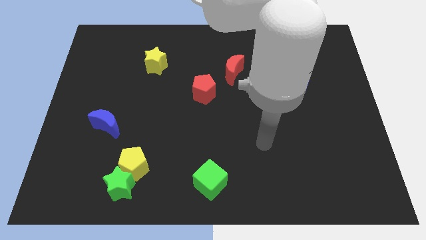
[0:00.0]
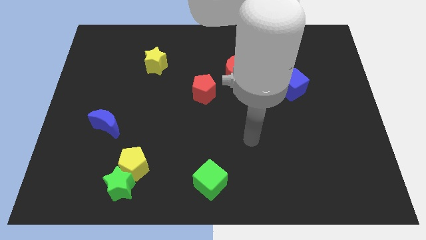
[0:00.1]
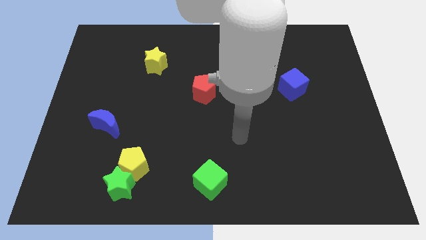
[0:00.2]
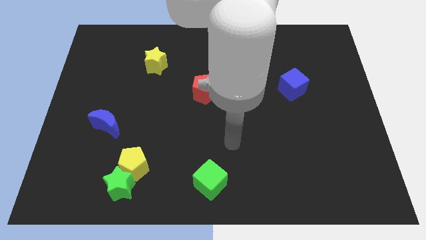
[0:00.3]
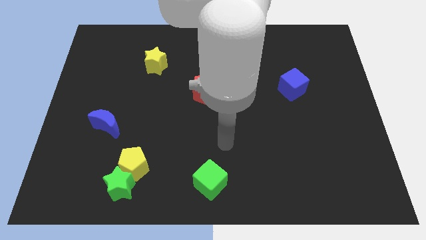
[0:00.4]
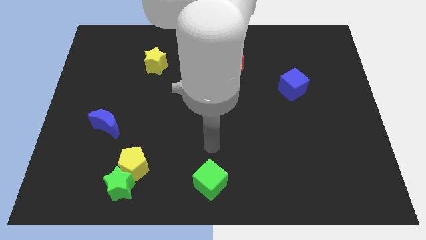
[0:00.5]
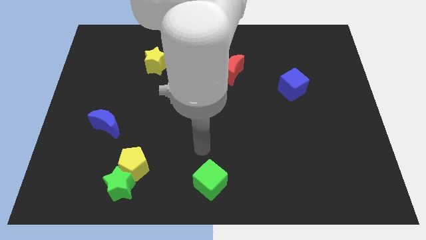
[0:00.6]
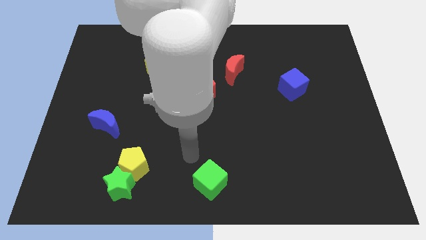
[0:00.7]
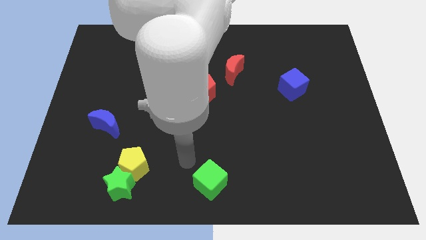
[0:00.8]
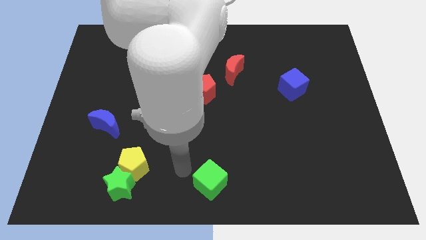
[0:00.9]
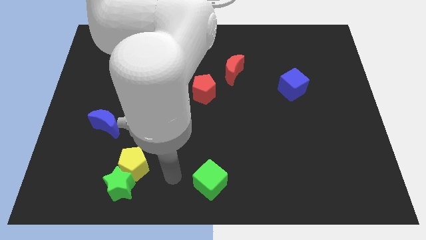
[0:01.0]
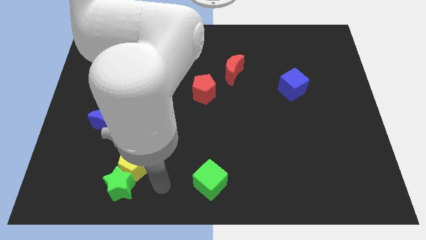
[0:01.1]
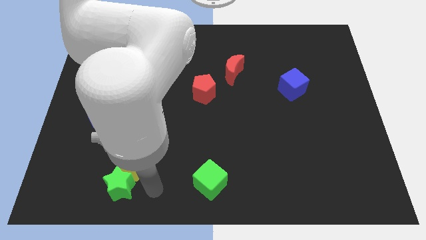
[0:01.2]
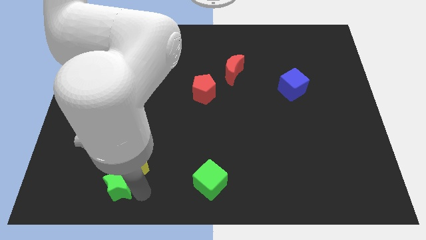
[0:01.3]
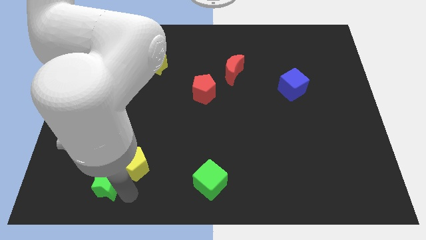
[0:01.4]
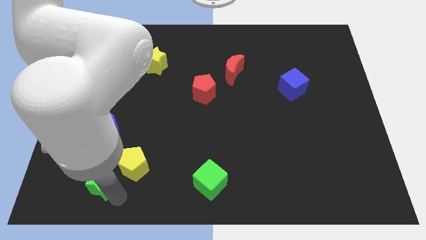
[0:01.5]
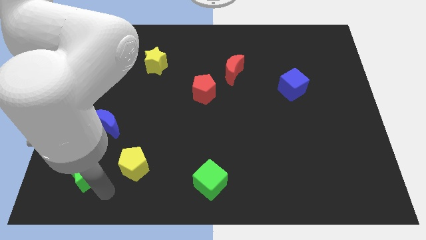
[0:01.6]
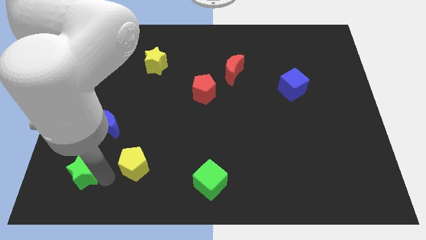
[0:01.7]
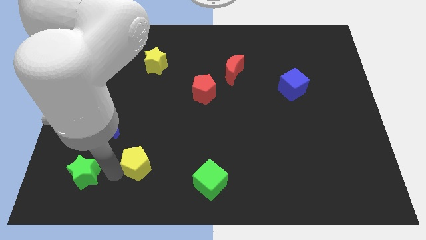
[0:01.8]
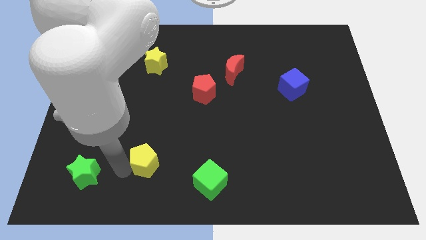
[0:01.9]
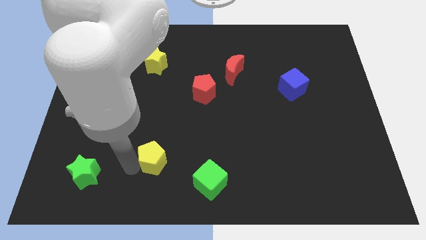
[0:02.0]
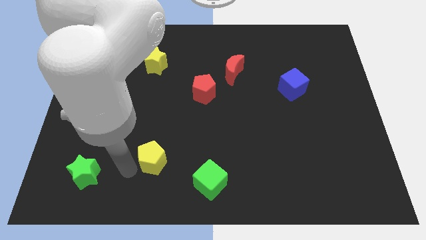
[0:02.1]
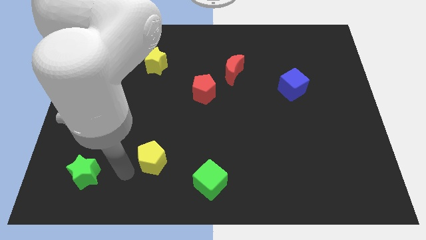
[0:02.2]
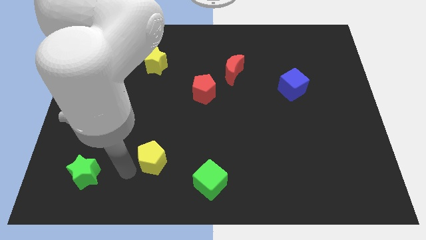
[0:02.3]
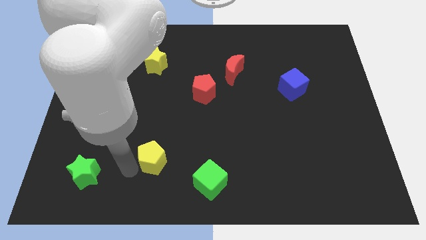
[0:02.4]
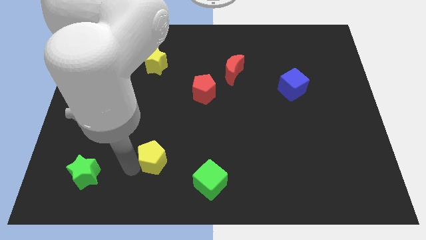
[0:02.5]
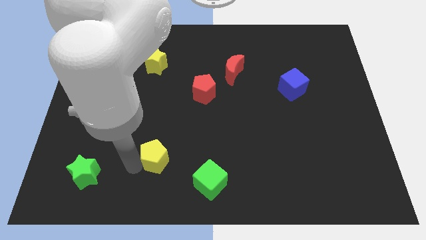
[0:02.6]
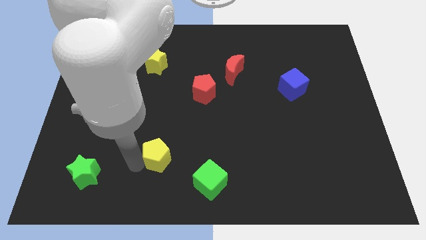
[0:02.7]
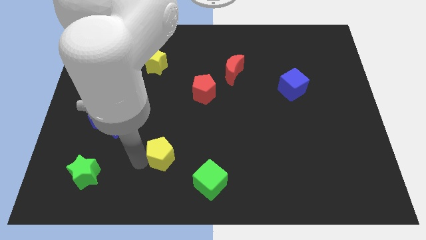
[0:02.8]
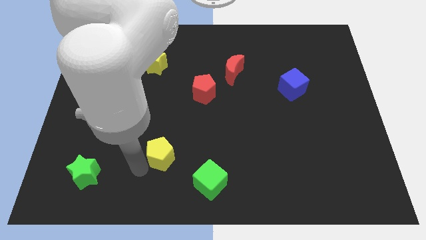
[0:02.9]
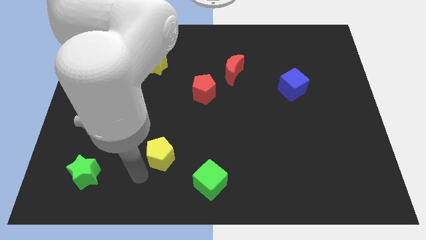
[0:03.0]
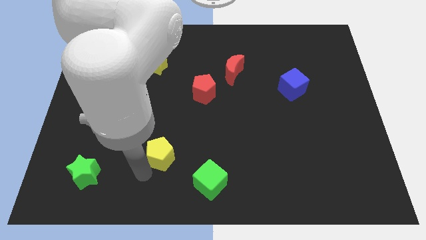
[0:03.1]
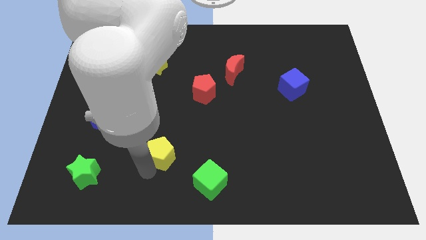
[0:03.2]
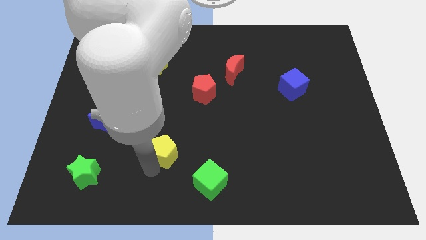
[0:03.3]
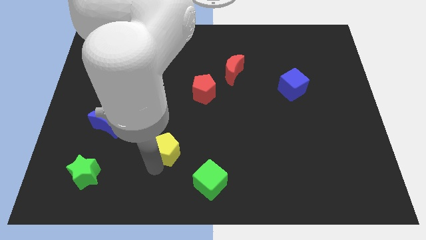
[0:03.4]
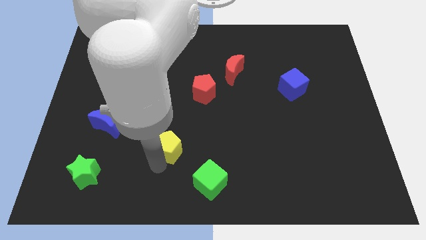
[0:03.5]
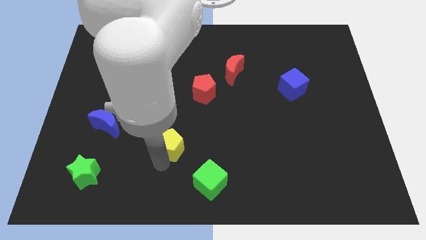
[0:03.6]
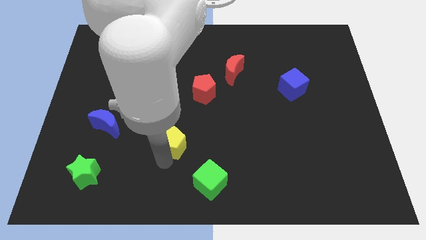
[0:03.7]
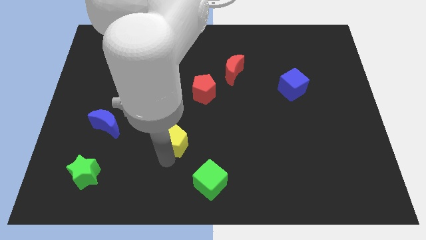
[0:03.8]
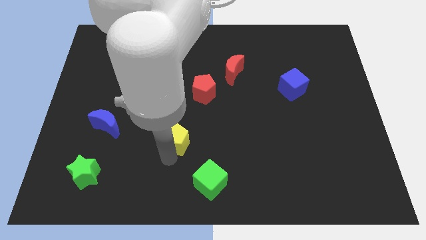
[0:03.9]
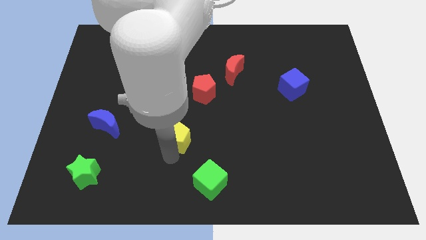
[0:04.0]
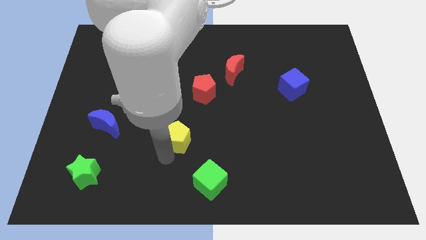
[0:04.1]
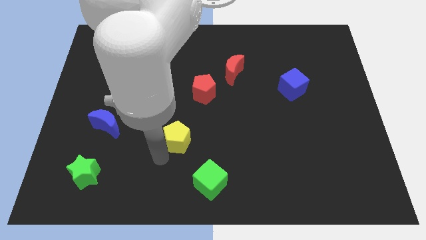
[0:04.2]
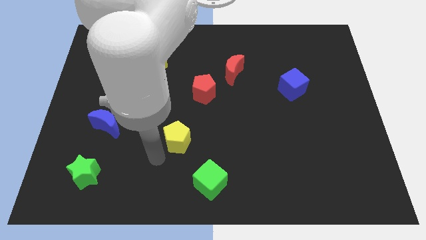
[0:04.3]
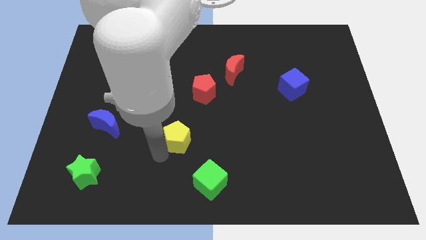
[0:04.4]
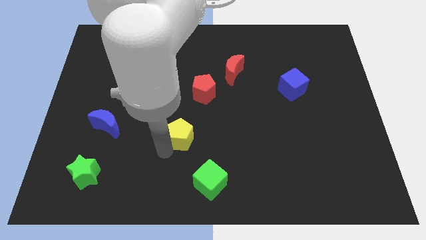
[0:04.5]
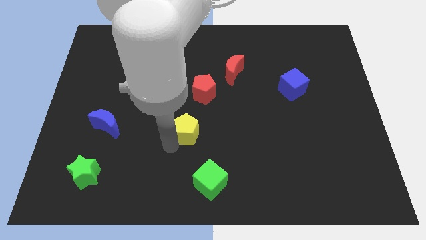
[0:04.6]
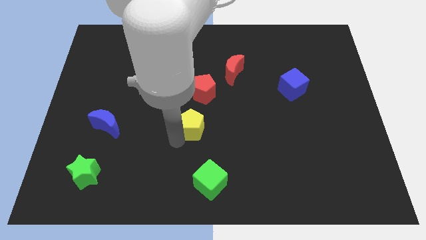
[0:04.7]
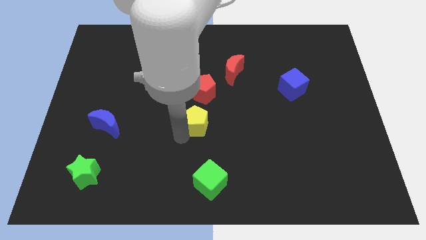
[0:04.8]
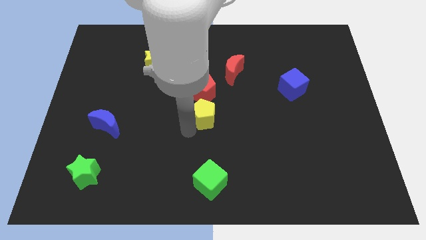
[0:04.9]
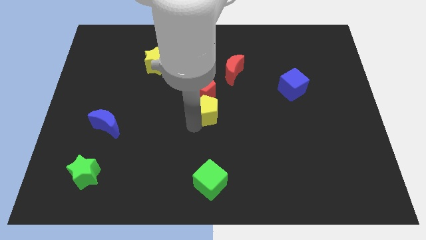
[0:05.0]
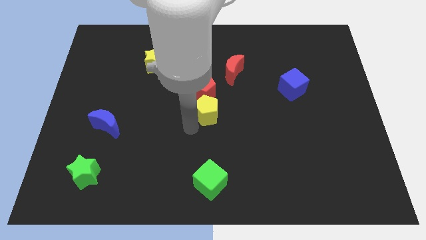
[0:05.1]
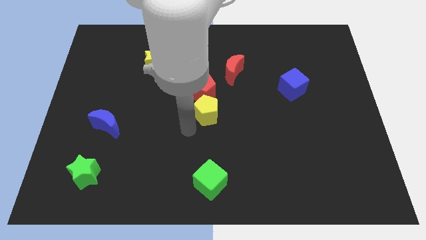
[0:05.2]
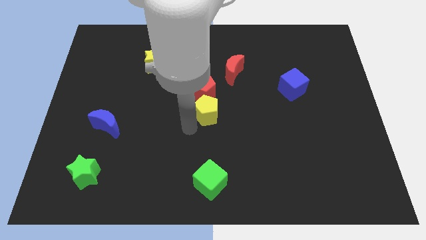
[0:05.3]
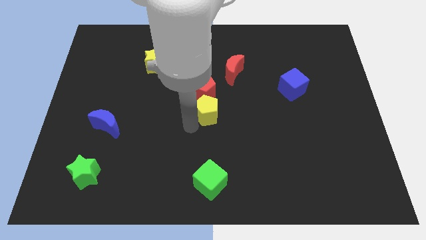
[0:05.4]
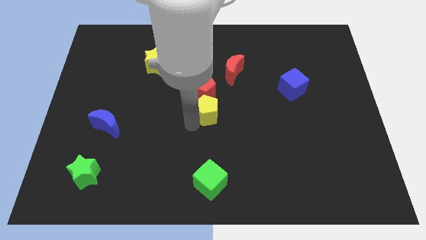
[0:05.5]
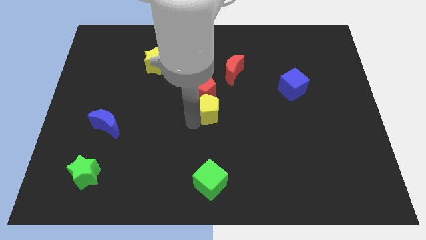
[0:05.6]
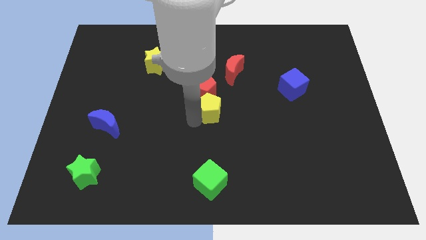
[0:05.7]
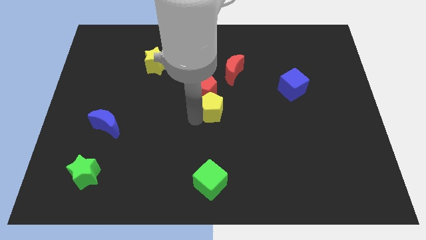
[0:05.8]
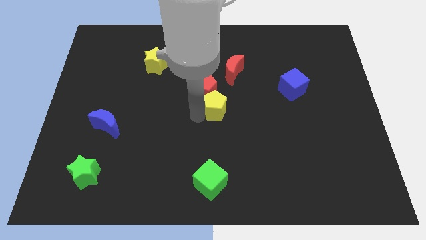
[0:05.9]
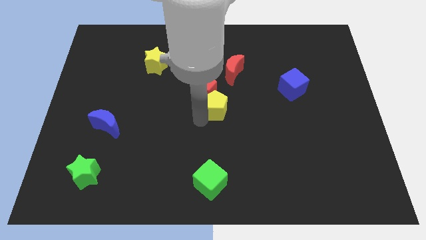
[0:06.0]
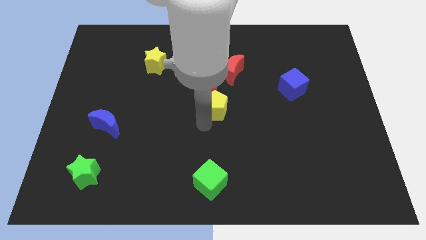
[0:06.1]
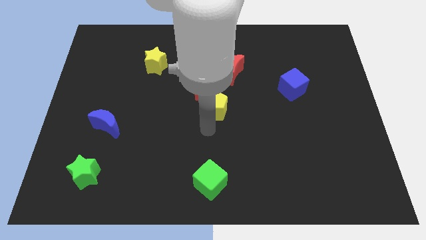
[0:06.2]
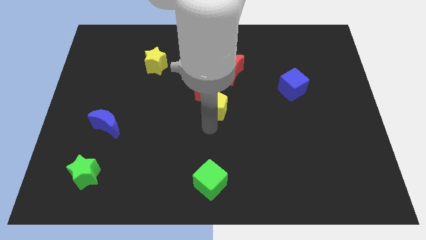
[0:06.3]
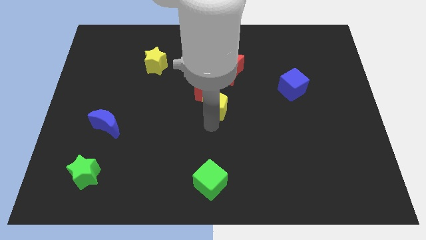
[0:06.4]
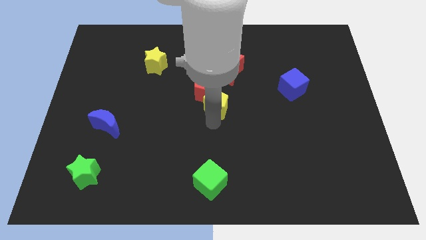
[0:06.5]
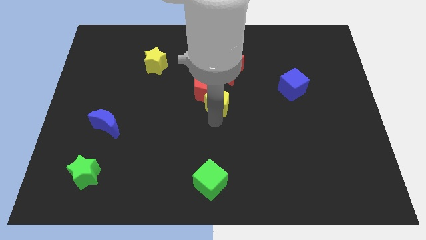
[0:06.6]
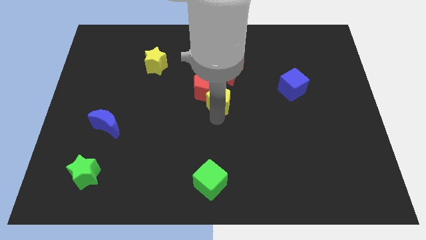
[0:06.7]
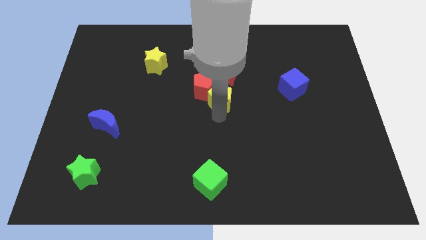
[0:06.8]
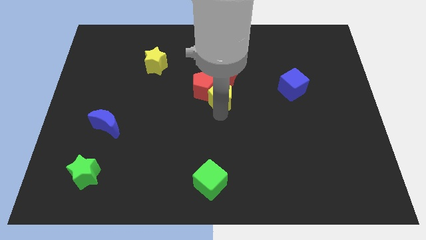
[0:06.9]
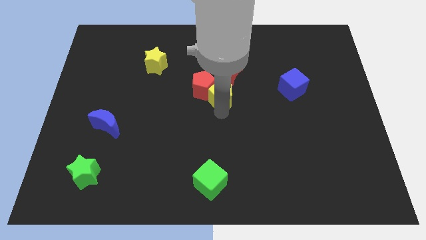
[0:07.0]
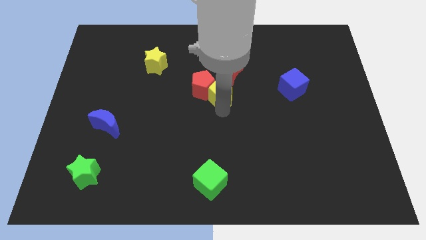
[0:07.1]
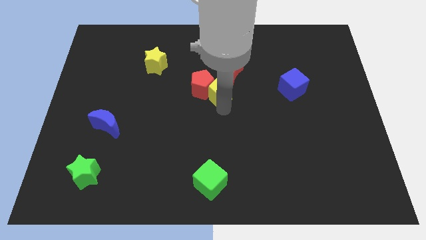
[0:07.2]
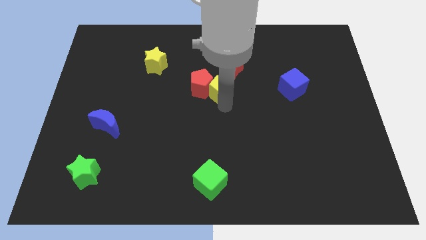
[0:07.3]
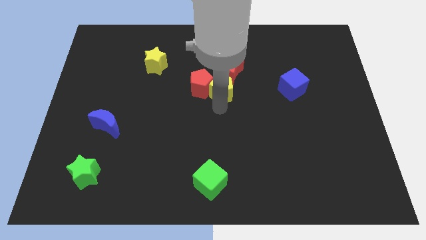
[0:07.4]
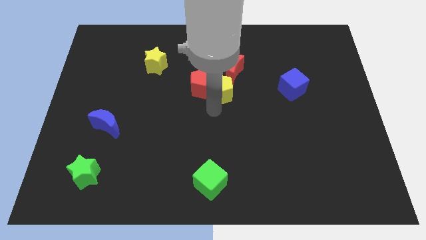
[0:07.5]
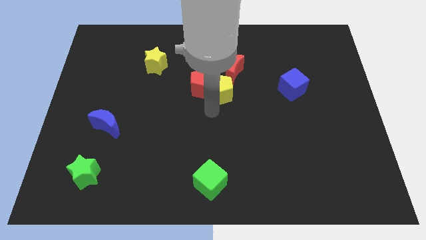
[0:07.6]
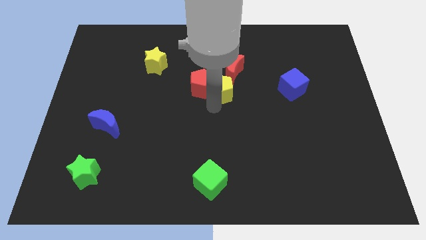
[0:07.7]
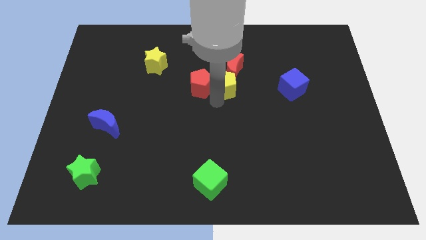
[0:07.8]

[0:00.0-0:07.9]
slide the yellow pentagon next to the red moon
